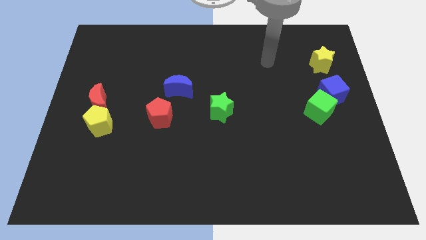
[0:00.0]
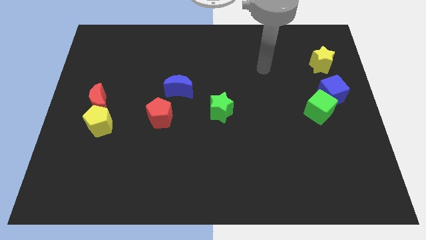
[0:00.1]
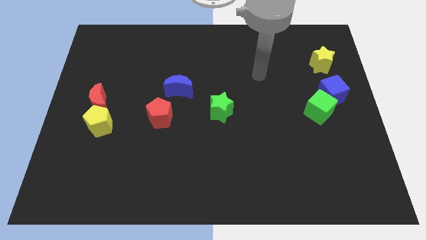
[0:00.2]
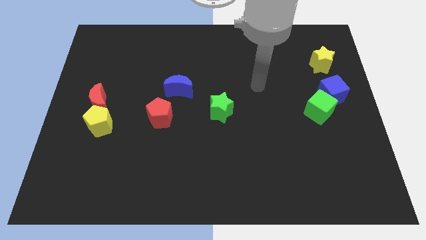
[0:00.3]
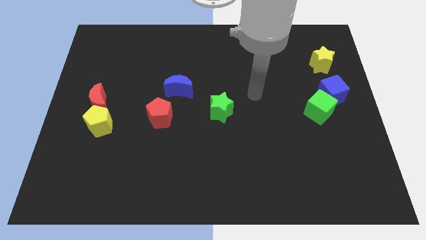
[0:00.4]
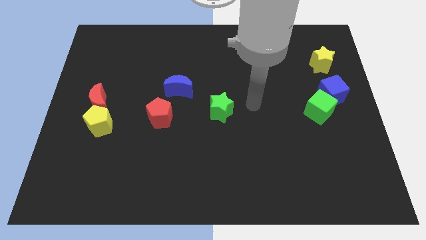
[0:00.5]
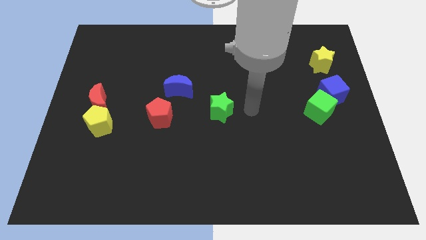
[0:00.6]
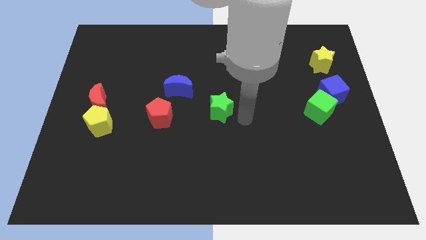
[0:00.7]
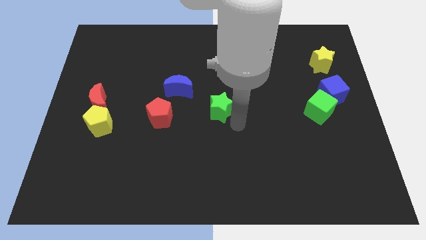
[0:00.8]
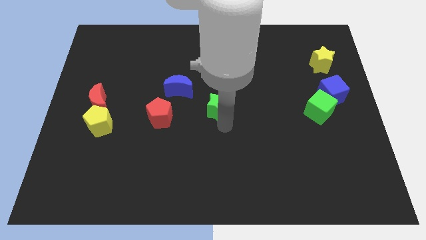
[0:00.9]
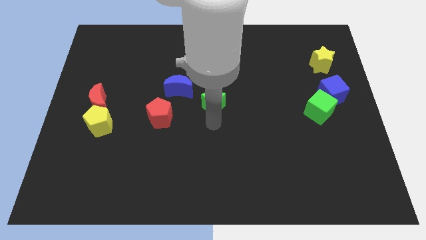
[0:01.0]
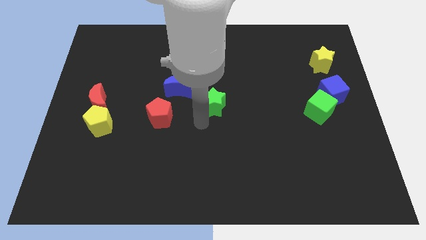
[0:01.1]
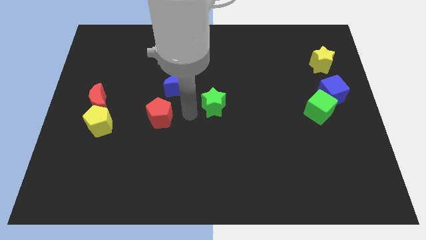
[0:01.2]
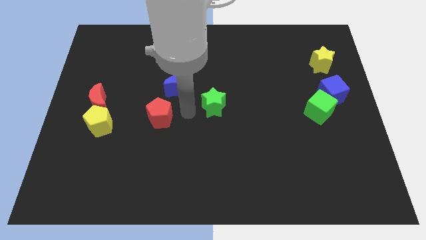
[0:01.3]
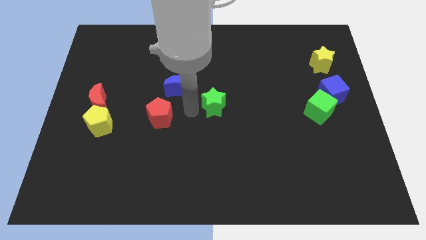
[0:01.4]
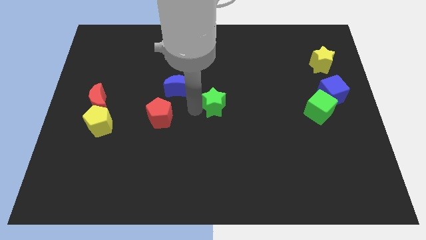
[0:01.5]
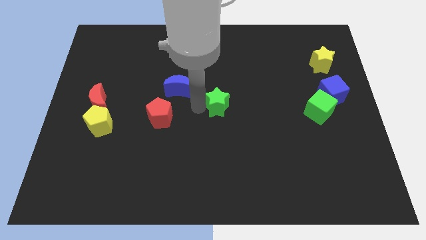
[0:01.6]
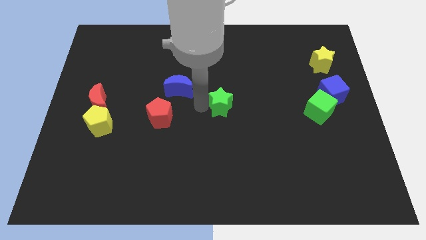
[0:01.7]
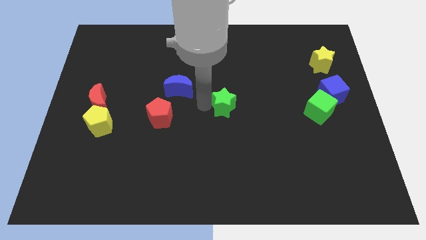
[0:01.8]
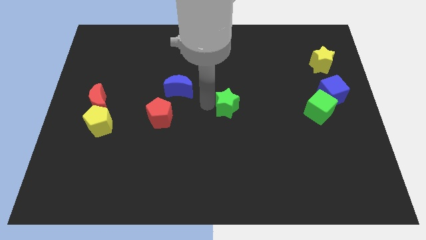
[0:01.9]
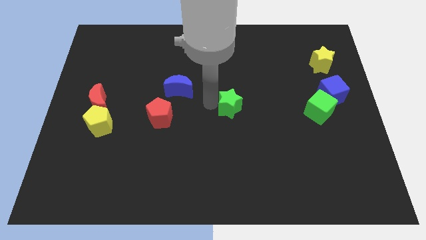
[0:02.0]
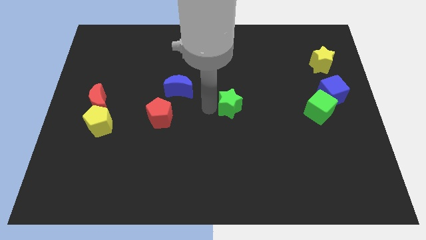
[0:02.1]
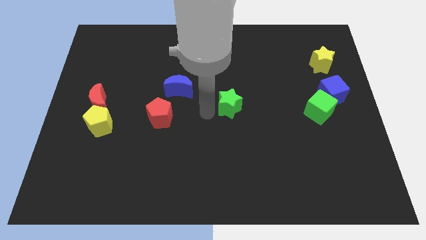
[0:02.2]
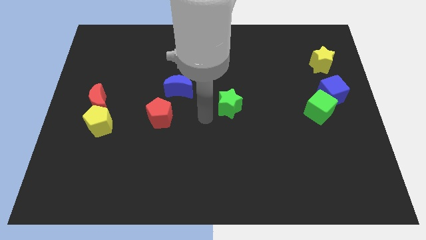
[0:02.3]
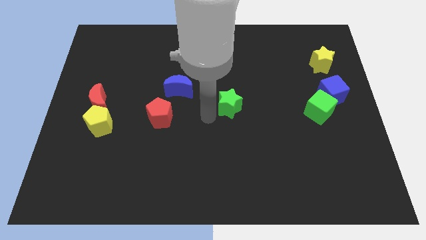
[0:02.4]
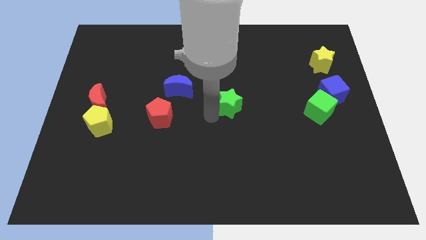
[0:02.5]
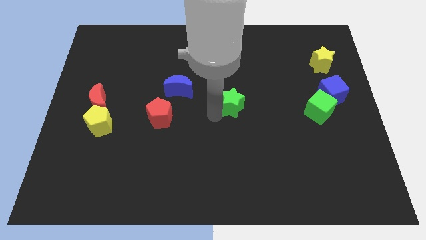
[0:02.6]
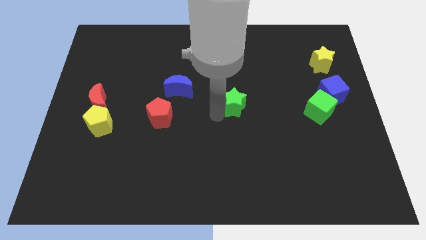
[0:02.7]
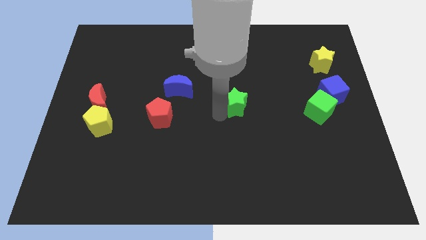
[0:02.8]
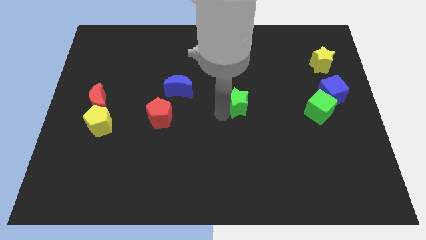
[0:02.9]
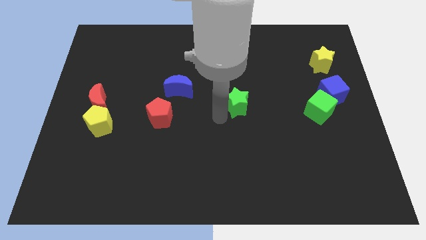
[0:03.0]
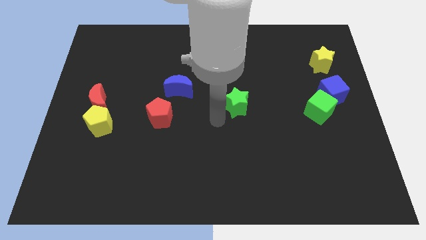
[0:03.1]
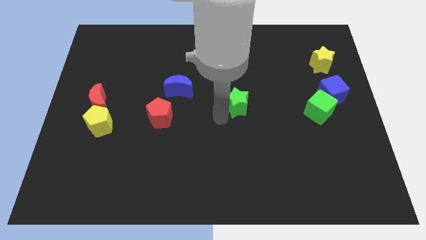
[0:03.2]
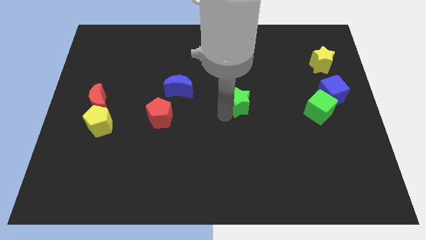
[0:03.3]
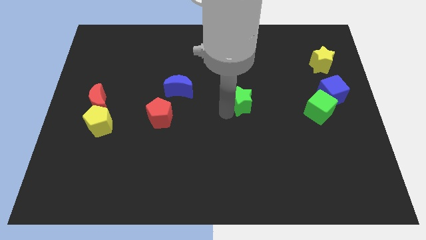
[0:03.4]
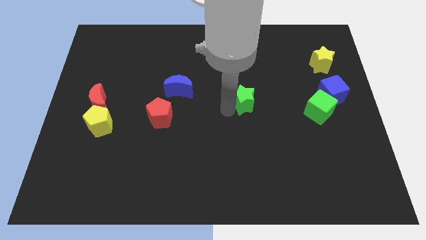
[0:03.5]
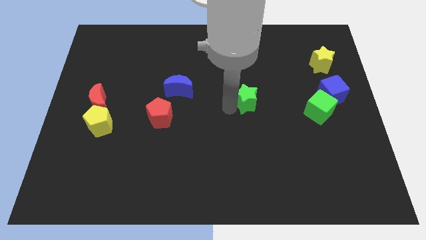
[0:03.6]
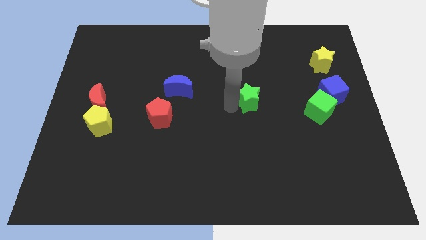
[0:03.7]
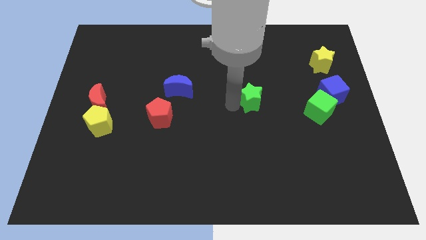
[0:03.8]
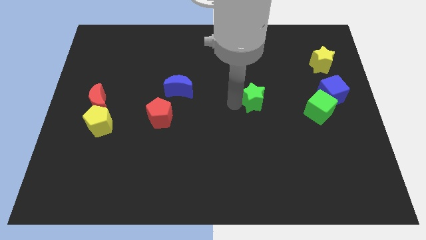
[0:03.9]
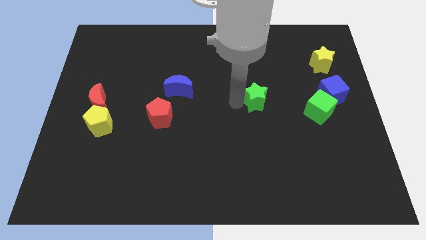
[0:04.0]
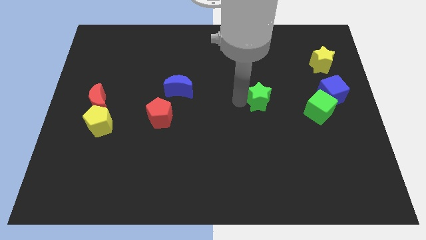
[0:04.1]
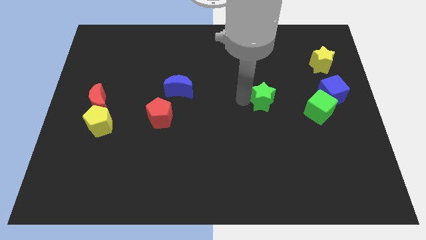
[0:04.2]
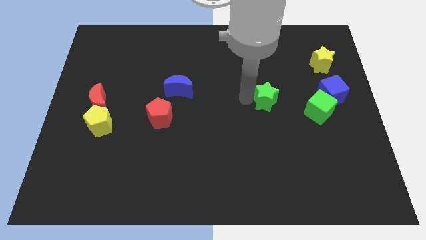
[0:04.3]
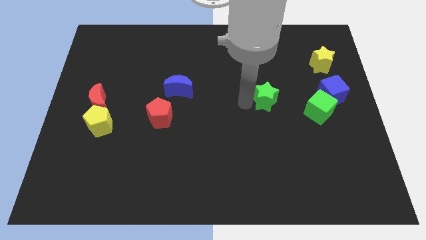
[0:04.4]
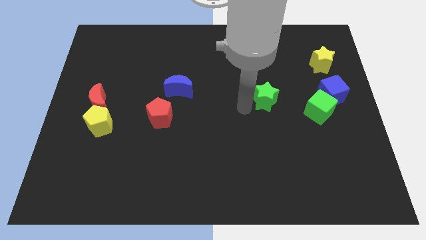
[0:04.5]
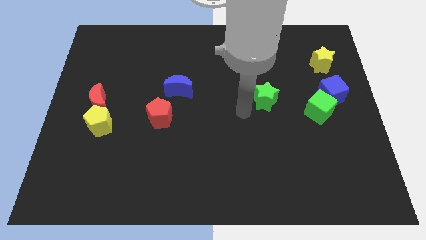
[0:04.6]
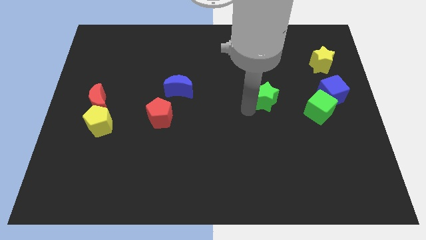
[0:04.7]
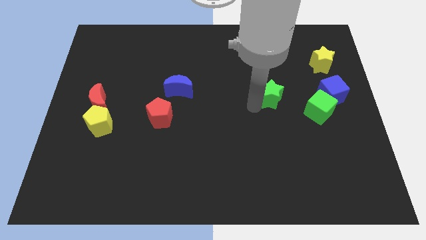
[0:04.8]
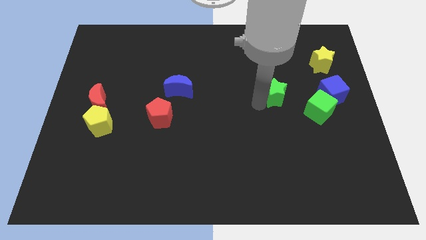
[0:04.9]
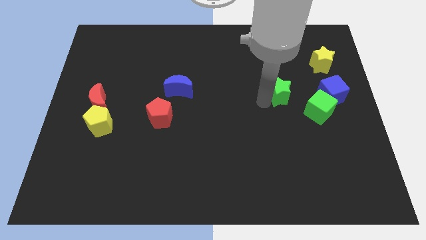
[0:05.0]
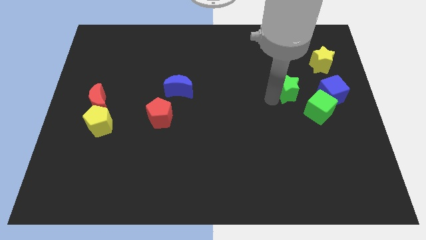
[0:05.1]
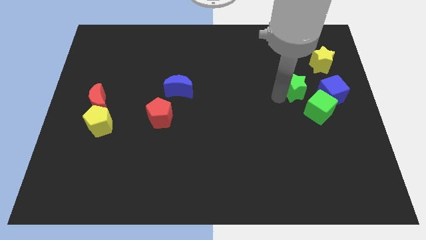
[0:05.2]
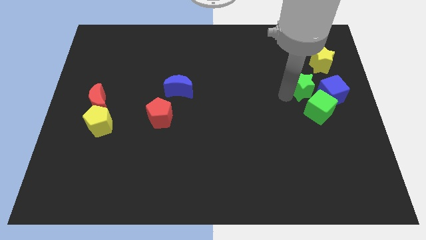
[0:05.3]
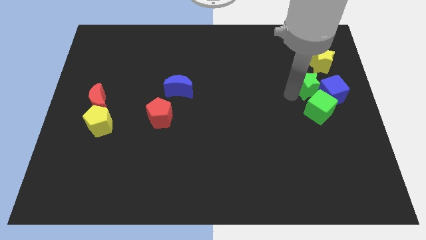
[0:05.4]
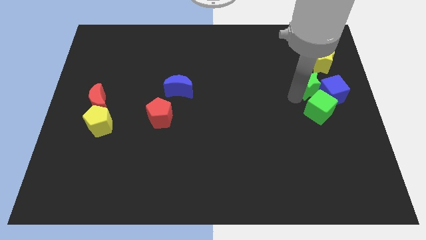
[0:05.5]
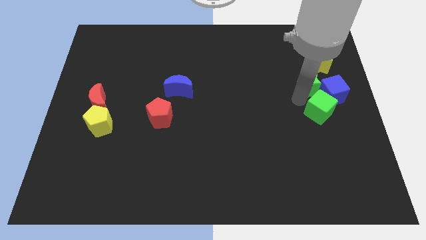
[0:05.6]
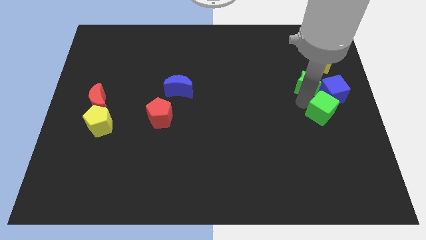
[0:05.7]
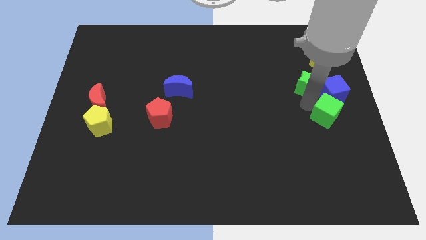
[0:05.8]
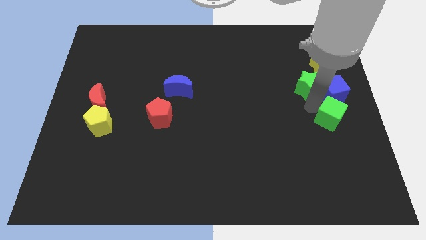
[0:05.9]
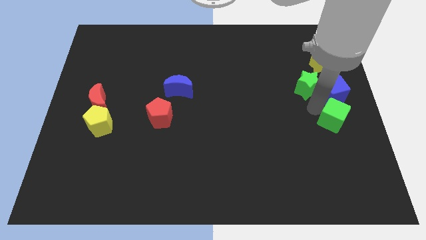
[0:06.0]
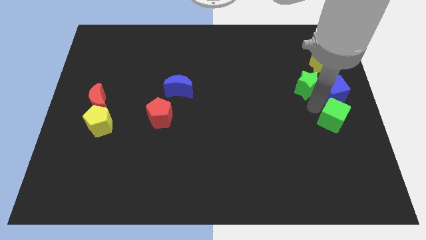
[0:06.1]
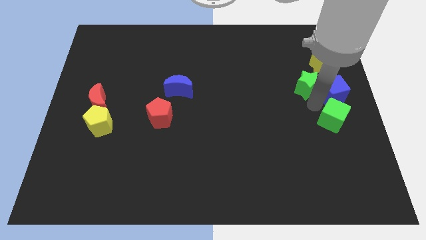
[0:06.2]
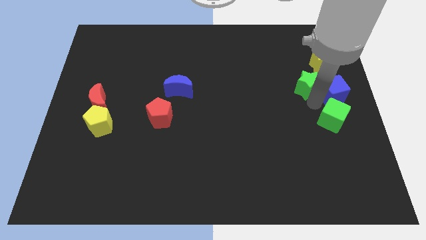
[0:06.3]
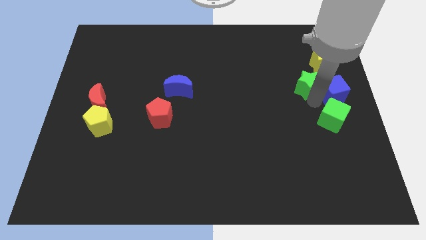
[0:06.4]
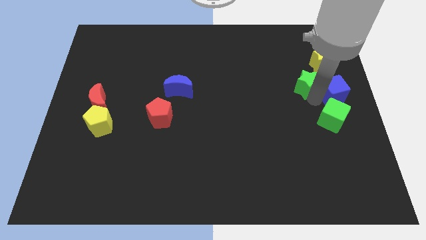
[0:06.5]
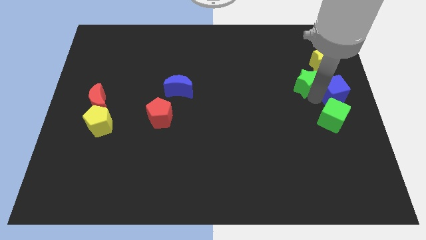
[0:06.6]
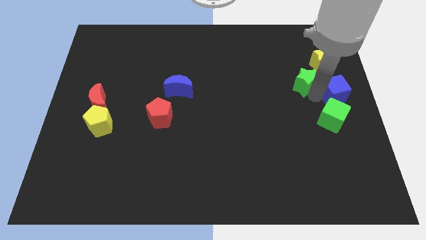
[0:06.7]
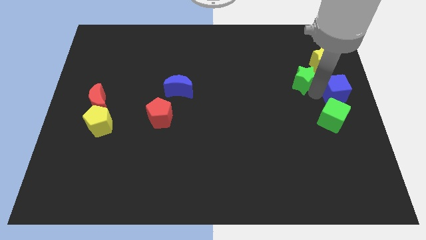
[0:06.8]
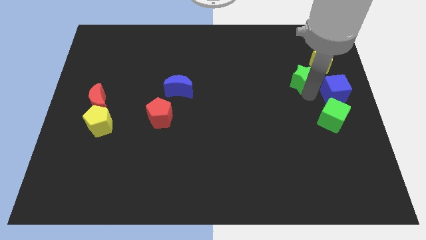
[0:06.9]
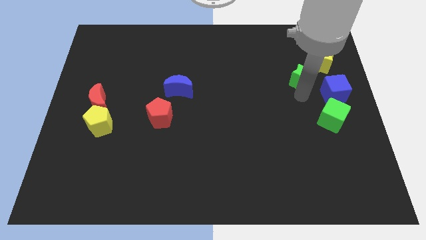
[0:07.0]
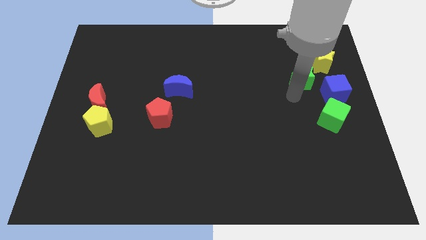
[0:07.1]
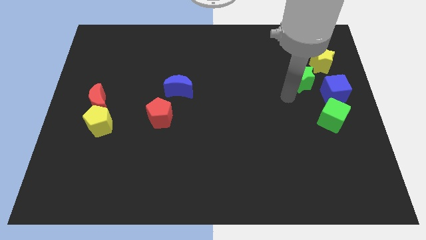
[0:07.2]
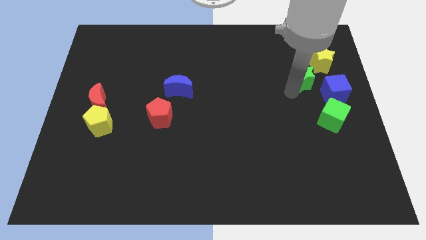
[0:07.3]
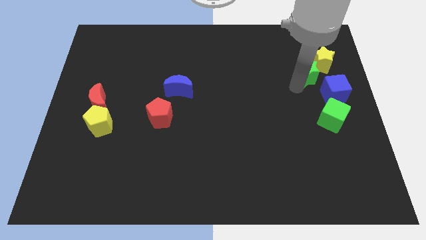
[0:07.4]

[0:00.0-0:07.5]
push the green star close to the yellow star
